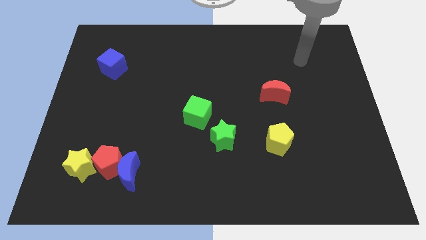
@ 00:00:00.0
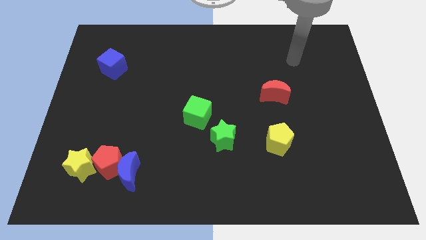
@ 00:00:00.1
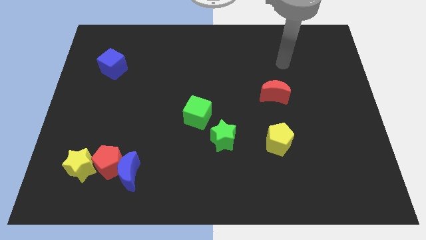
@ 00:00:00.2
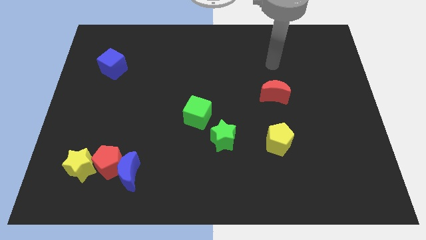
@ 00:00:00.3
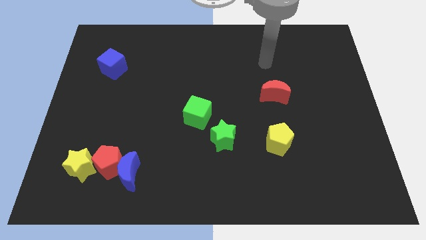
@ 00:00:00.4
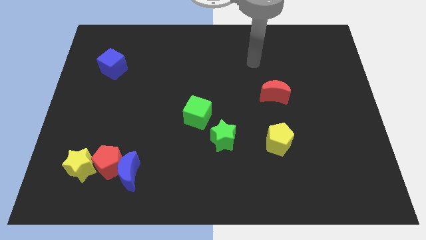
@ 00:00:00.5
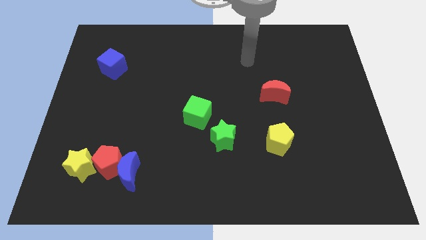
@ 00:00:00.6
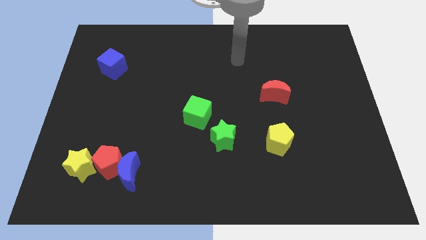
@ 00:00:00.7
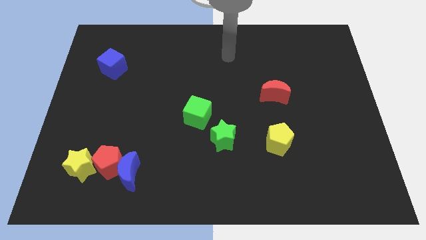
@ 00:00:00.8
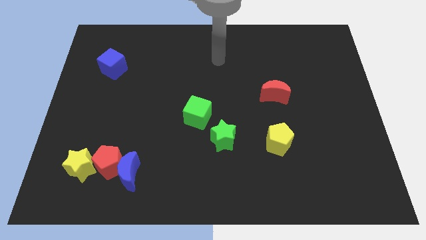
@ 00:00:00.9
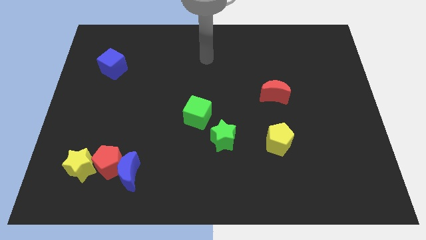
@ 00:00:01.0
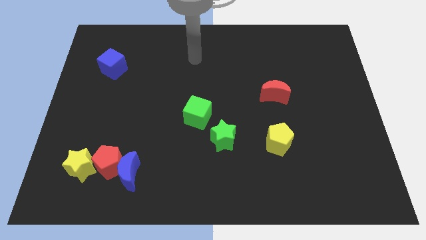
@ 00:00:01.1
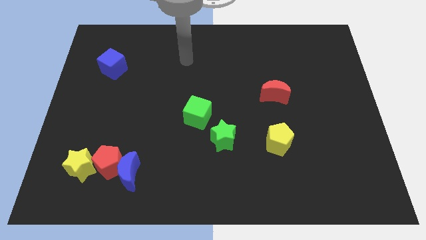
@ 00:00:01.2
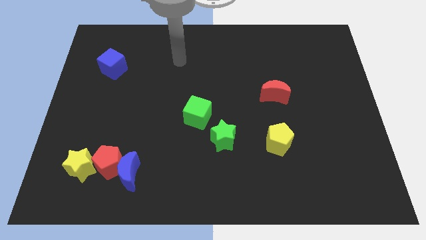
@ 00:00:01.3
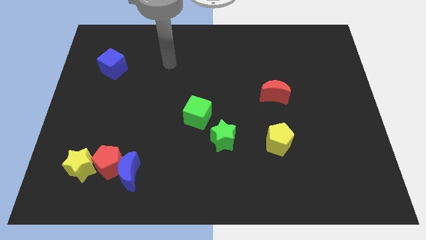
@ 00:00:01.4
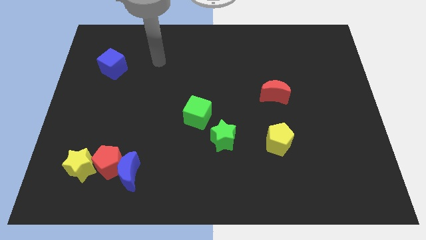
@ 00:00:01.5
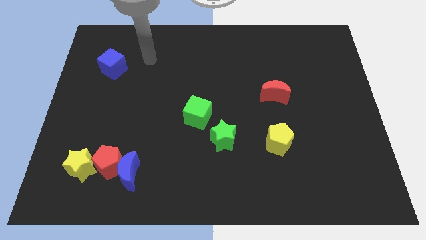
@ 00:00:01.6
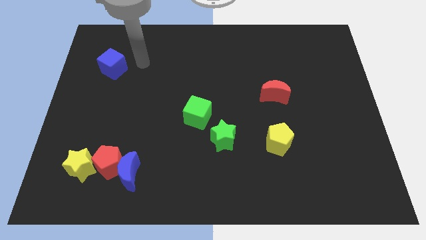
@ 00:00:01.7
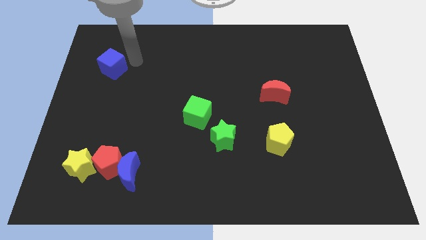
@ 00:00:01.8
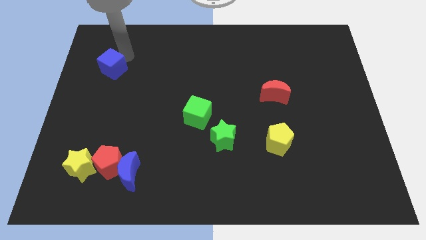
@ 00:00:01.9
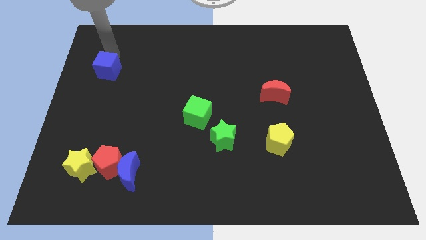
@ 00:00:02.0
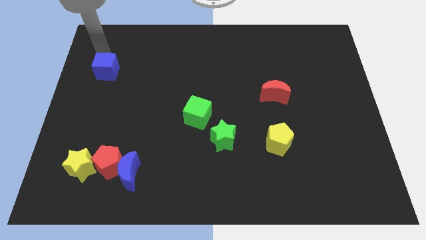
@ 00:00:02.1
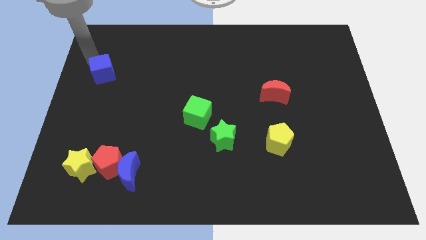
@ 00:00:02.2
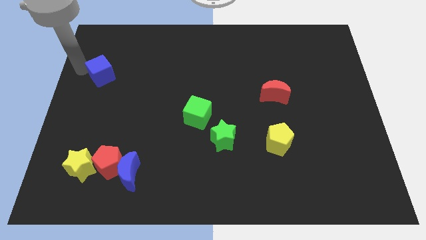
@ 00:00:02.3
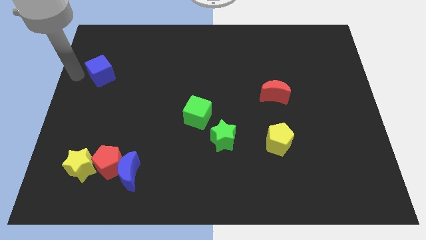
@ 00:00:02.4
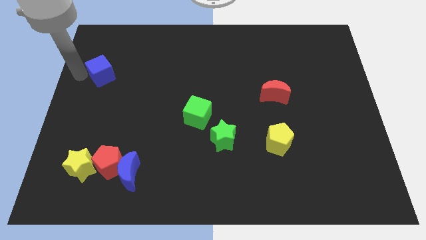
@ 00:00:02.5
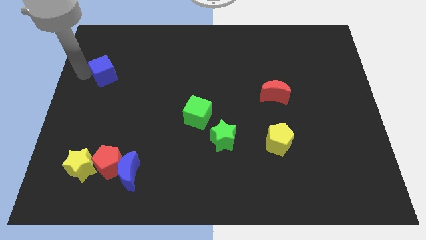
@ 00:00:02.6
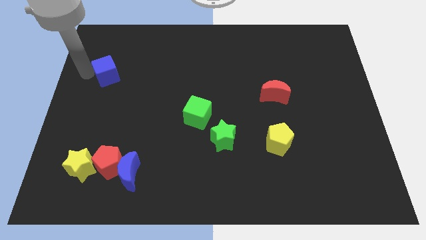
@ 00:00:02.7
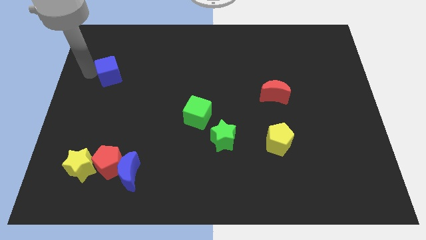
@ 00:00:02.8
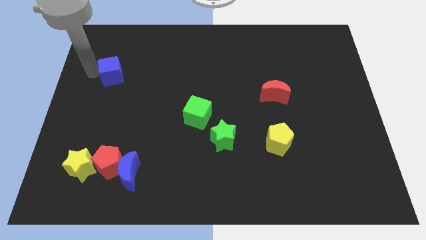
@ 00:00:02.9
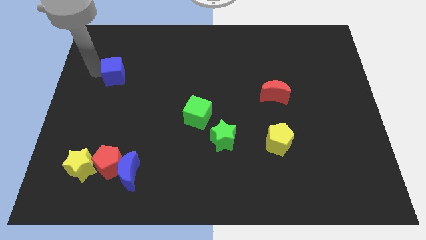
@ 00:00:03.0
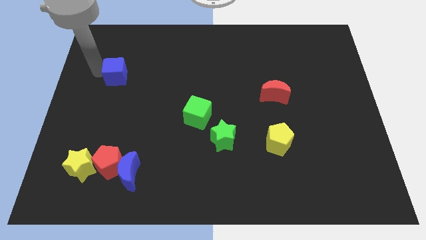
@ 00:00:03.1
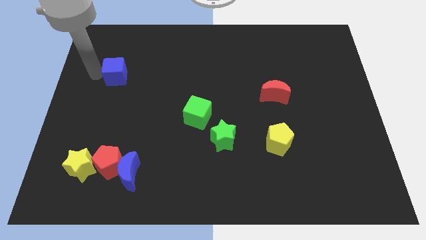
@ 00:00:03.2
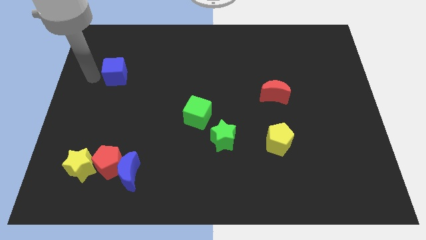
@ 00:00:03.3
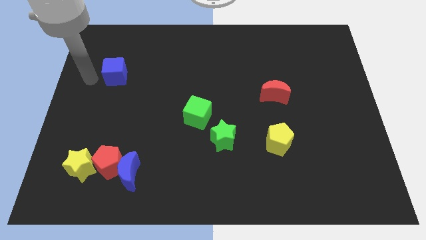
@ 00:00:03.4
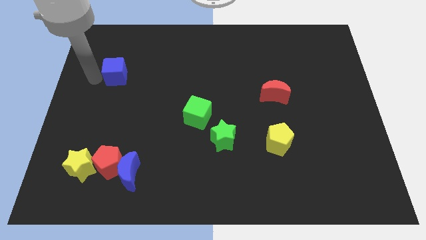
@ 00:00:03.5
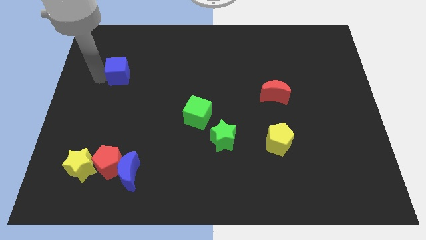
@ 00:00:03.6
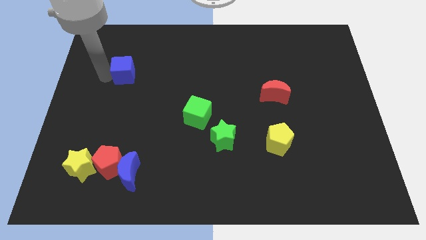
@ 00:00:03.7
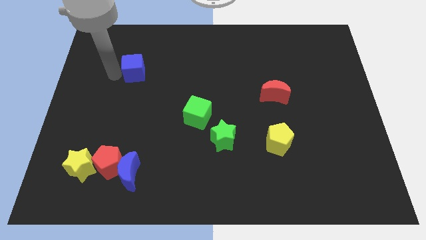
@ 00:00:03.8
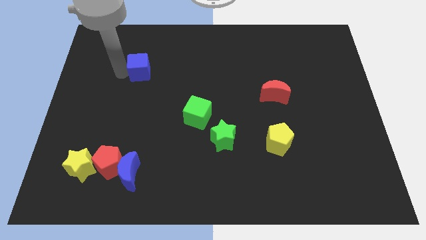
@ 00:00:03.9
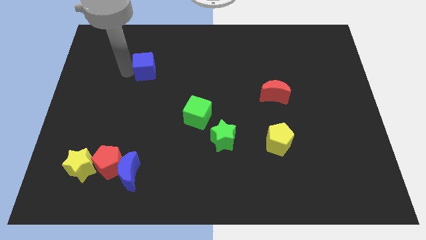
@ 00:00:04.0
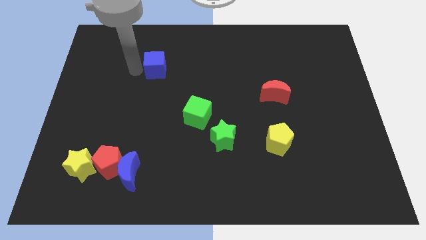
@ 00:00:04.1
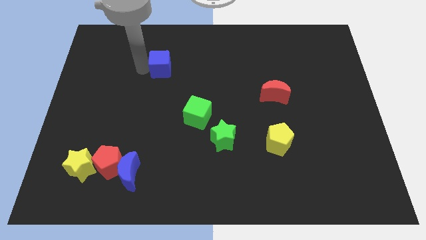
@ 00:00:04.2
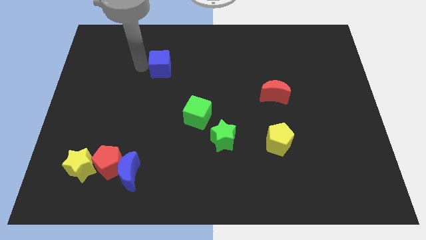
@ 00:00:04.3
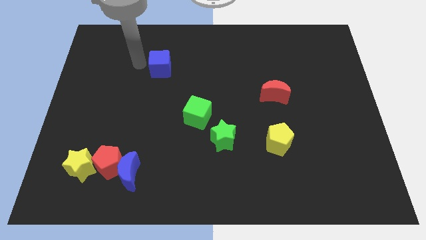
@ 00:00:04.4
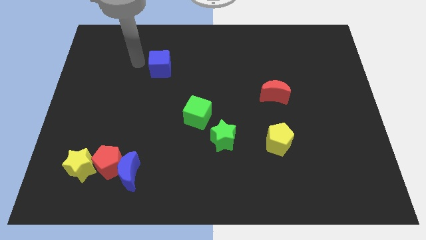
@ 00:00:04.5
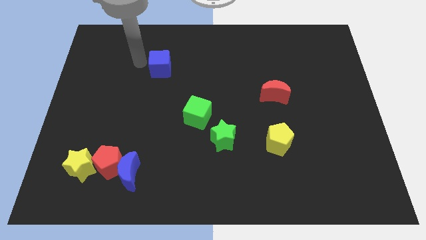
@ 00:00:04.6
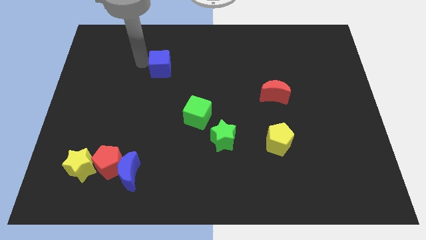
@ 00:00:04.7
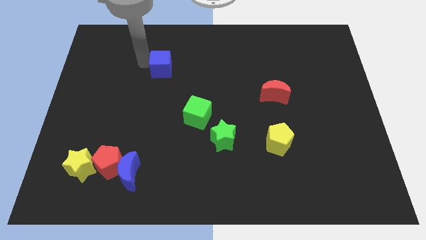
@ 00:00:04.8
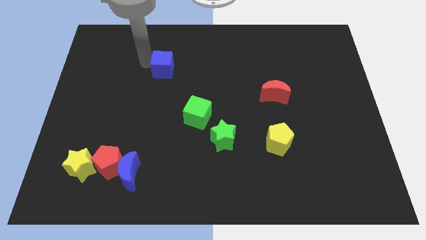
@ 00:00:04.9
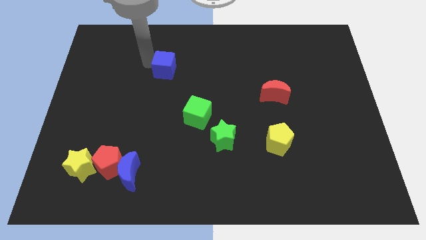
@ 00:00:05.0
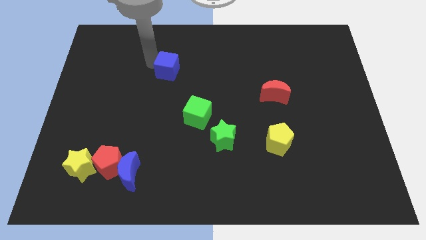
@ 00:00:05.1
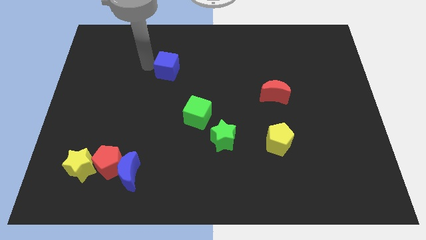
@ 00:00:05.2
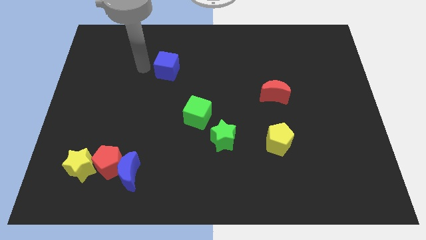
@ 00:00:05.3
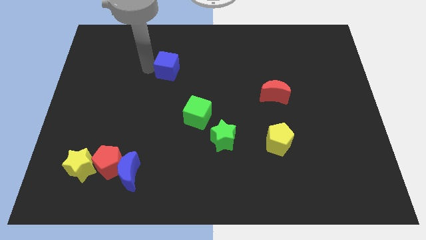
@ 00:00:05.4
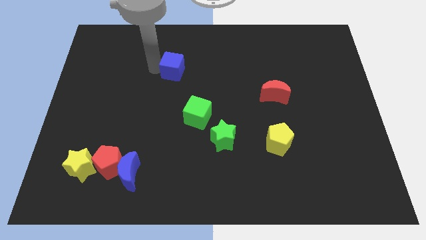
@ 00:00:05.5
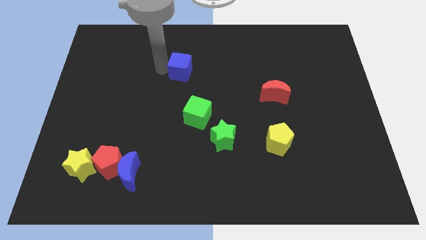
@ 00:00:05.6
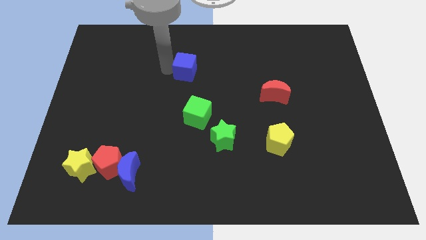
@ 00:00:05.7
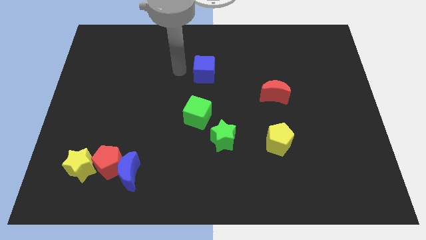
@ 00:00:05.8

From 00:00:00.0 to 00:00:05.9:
slide the blue cube right

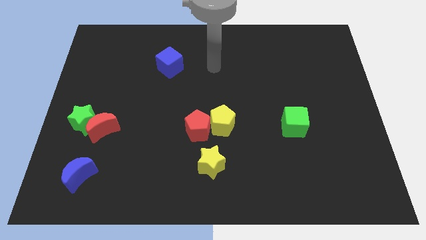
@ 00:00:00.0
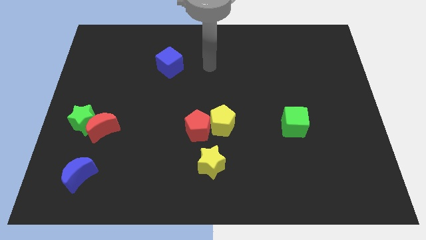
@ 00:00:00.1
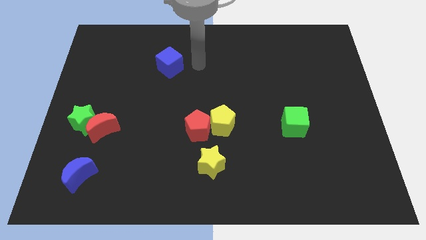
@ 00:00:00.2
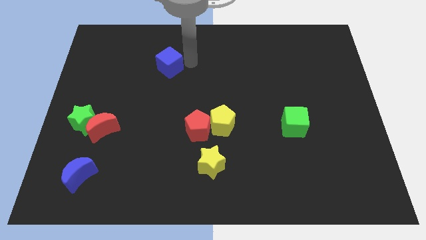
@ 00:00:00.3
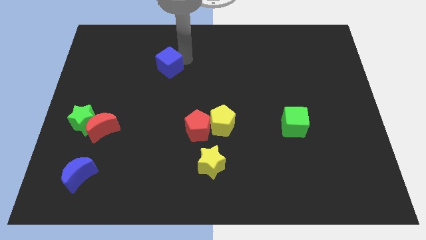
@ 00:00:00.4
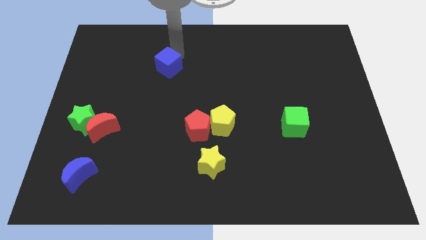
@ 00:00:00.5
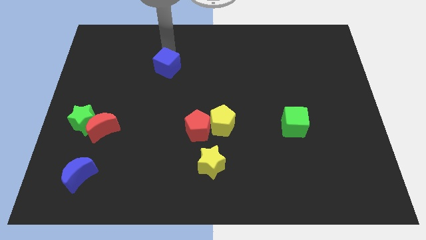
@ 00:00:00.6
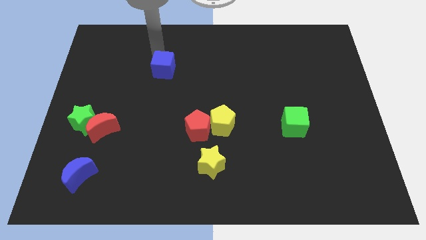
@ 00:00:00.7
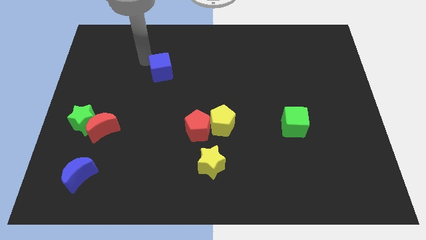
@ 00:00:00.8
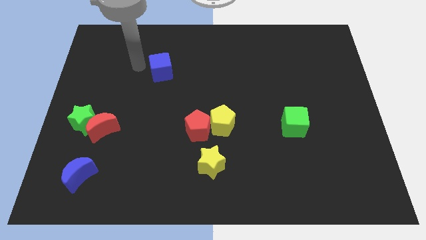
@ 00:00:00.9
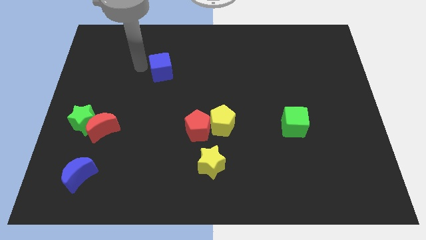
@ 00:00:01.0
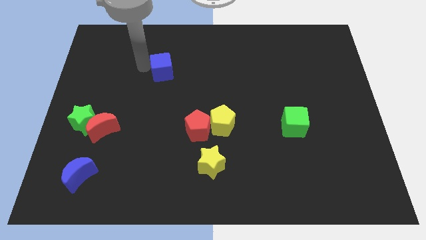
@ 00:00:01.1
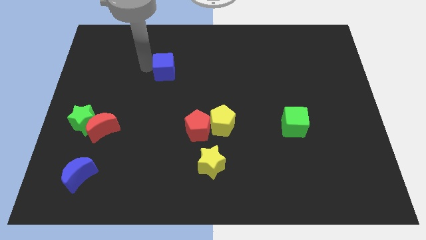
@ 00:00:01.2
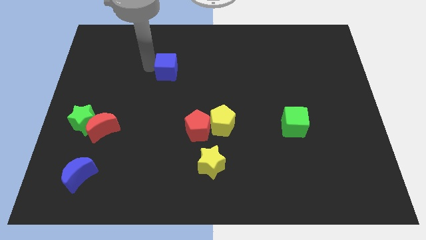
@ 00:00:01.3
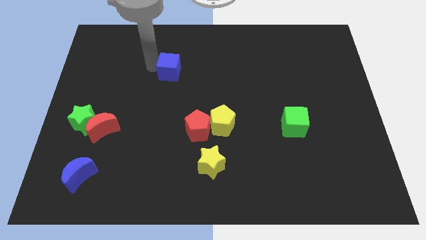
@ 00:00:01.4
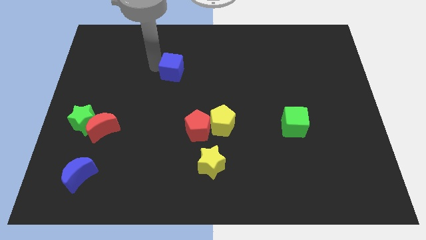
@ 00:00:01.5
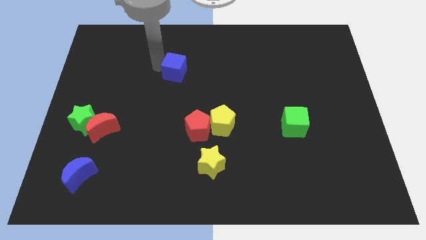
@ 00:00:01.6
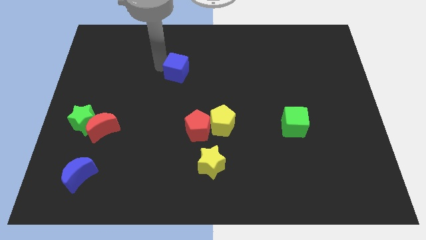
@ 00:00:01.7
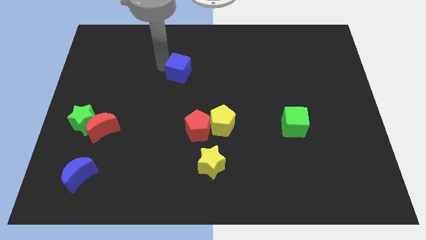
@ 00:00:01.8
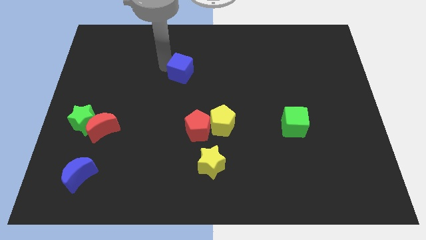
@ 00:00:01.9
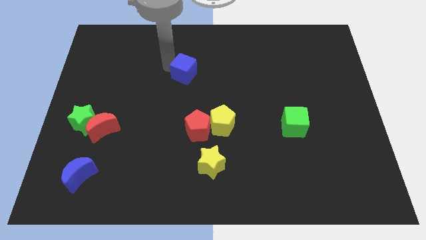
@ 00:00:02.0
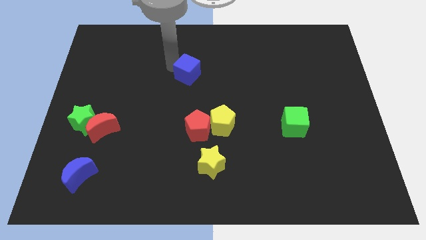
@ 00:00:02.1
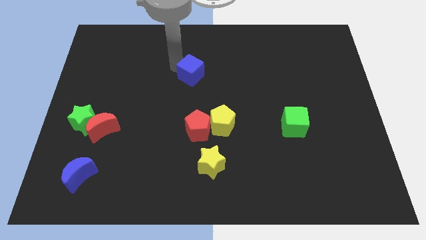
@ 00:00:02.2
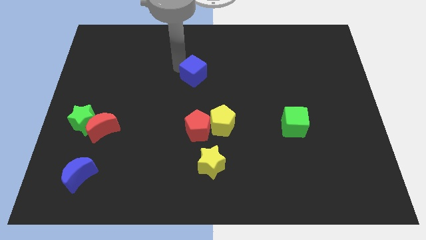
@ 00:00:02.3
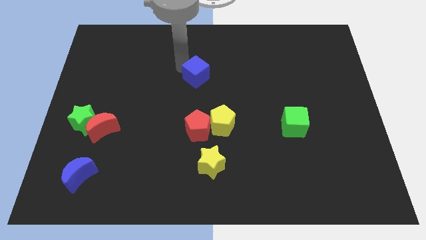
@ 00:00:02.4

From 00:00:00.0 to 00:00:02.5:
push the blue cube somewhat down and right diagonally
